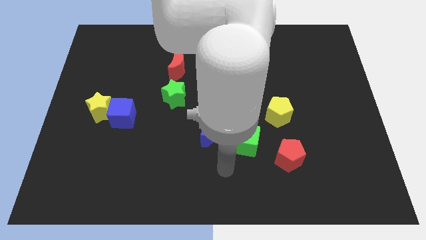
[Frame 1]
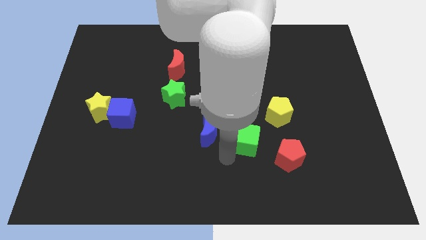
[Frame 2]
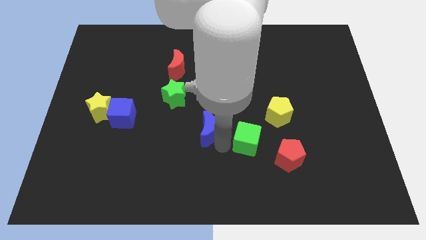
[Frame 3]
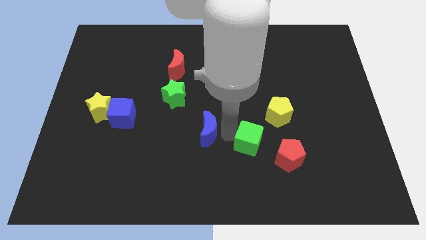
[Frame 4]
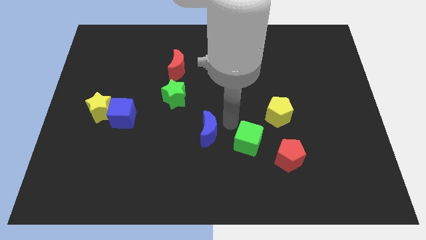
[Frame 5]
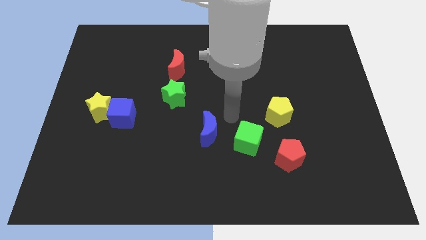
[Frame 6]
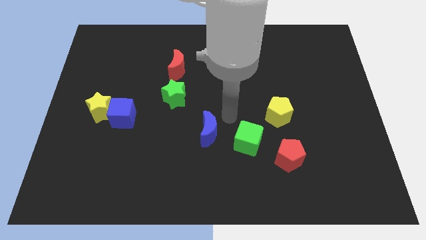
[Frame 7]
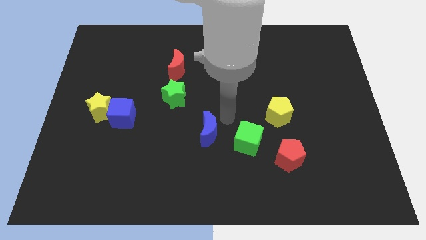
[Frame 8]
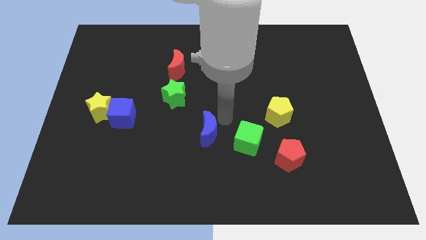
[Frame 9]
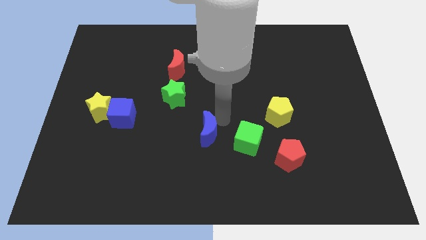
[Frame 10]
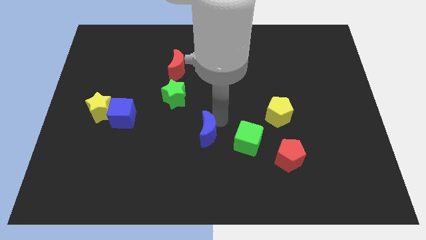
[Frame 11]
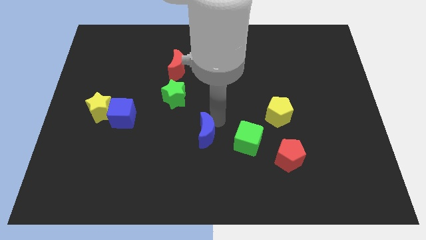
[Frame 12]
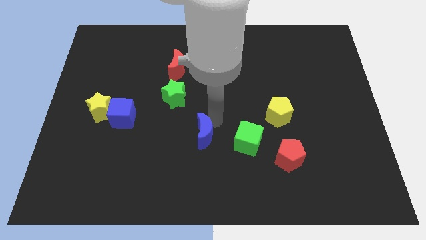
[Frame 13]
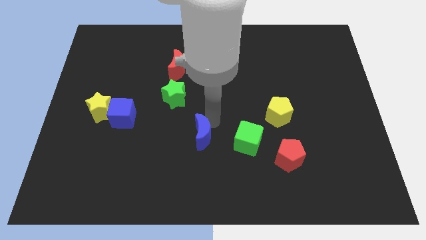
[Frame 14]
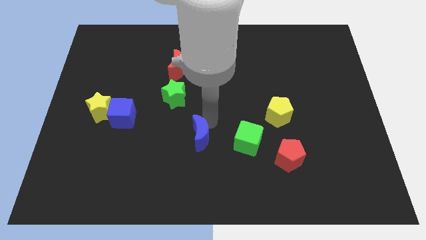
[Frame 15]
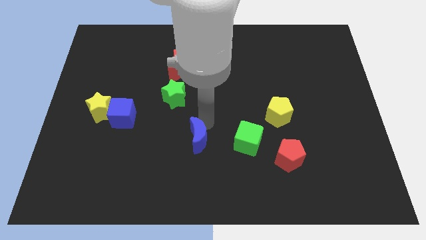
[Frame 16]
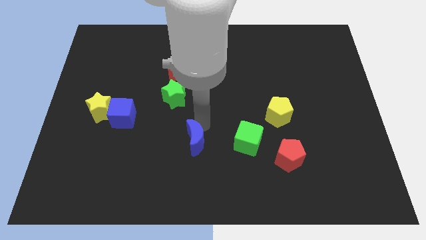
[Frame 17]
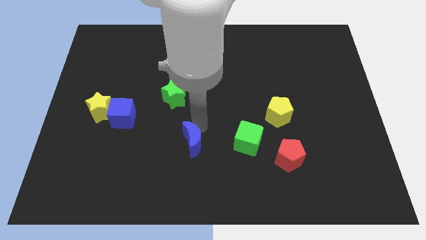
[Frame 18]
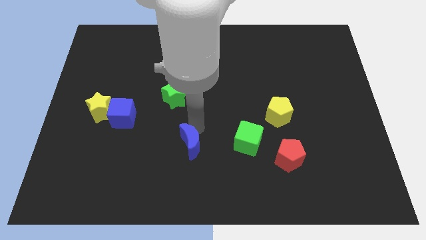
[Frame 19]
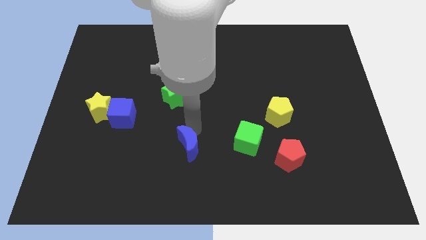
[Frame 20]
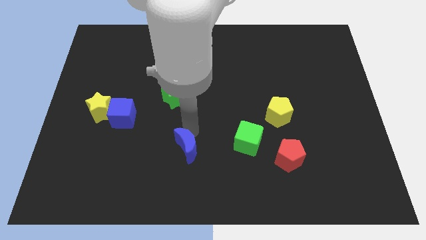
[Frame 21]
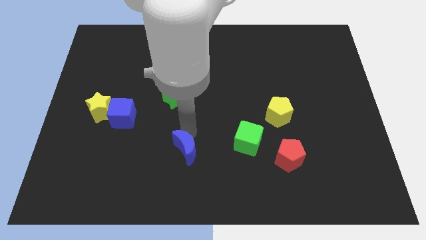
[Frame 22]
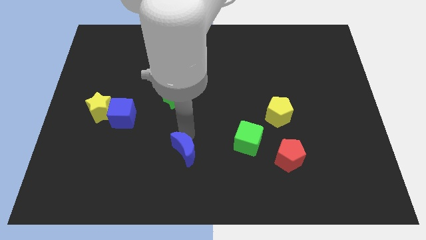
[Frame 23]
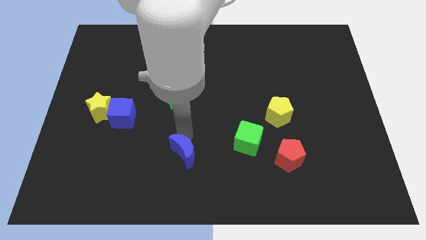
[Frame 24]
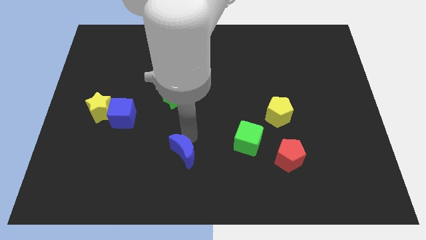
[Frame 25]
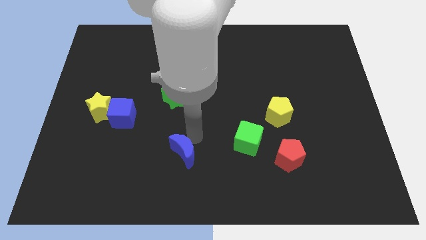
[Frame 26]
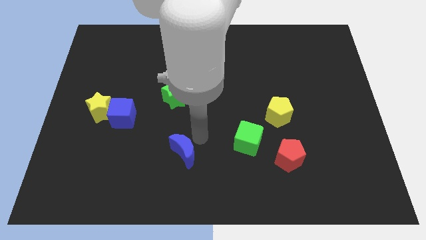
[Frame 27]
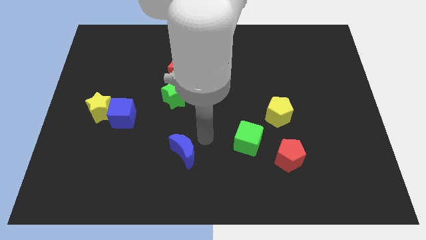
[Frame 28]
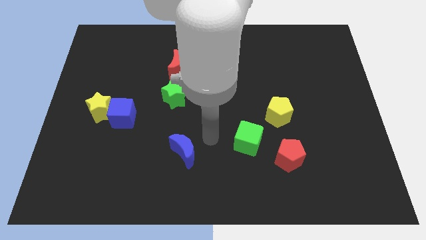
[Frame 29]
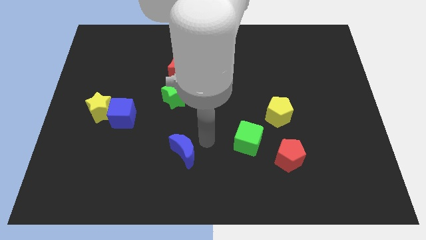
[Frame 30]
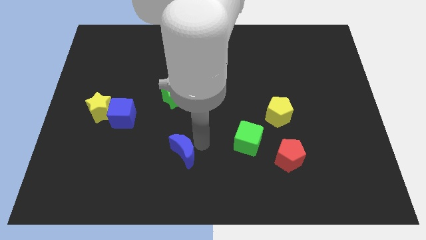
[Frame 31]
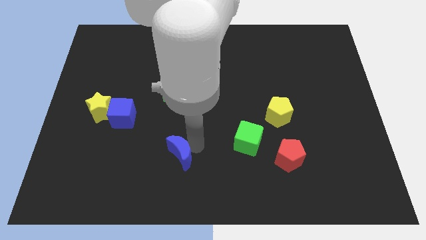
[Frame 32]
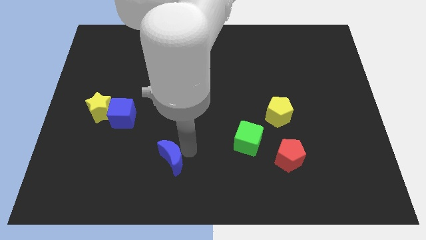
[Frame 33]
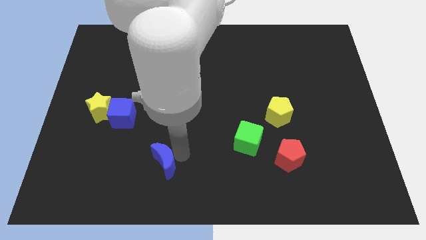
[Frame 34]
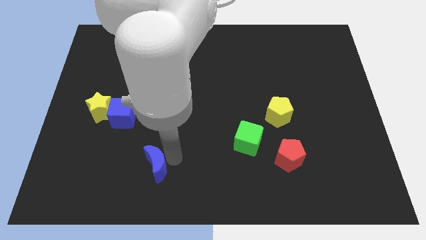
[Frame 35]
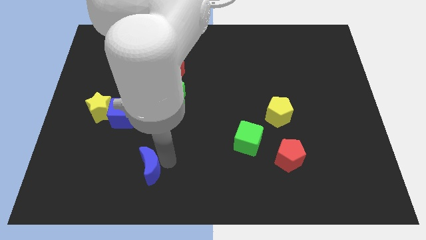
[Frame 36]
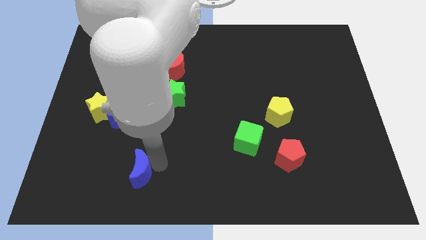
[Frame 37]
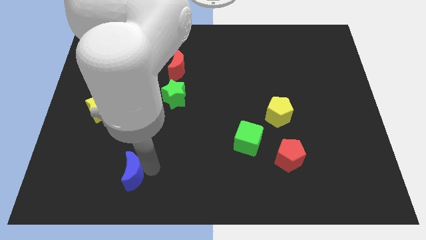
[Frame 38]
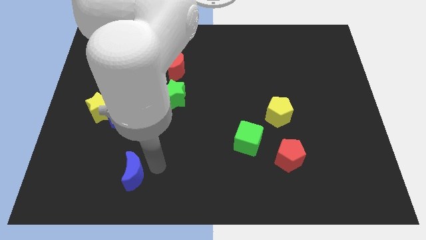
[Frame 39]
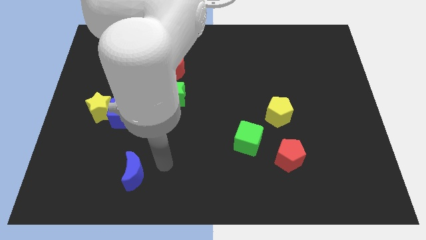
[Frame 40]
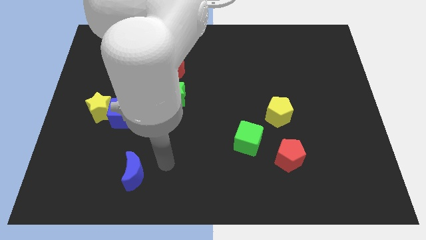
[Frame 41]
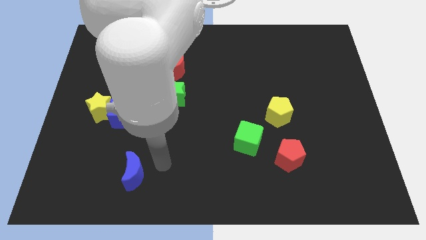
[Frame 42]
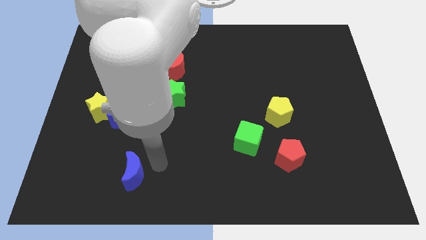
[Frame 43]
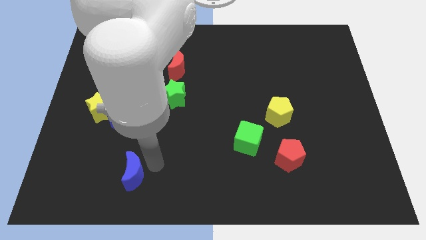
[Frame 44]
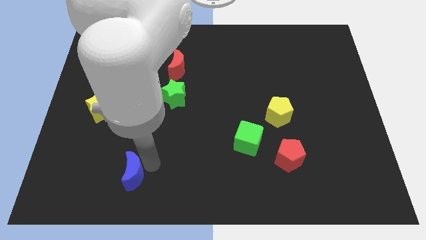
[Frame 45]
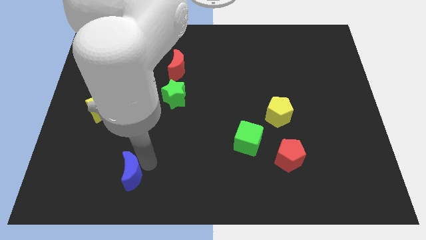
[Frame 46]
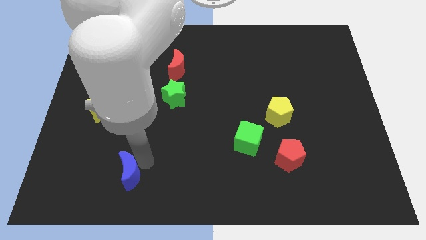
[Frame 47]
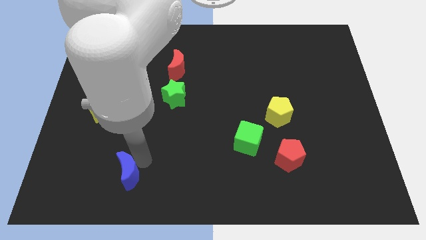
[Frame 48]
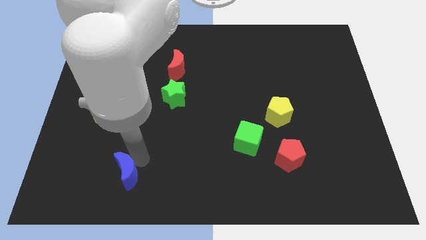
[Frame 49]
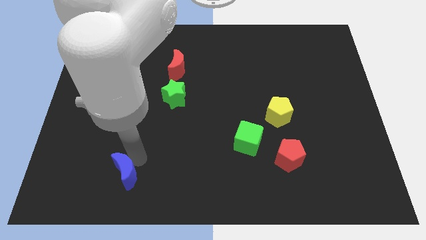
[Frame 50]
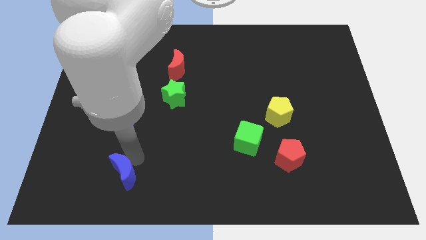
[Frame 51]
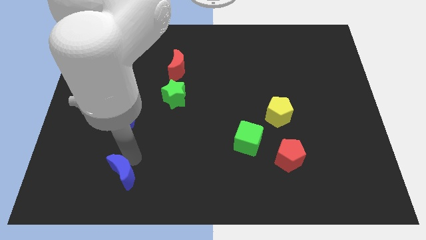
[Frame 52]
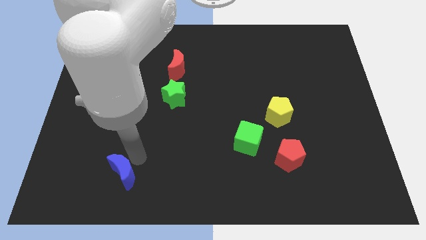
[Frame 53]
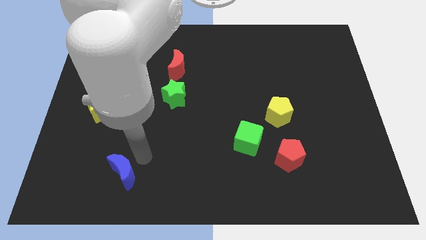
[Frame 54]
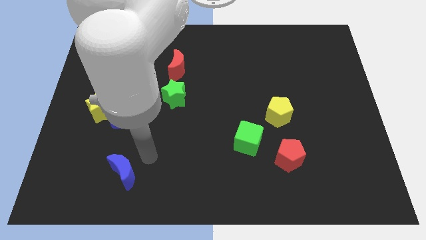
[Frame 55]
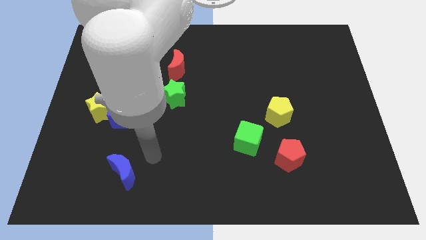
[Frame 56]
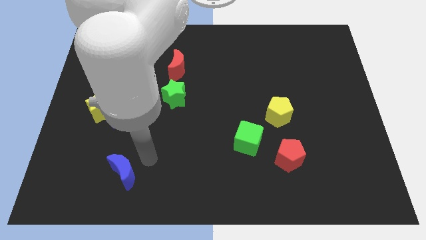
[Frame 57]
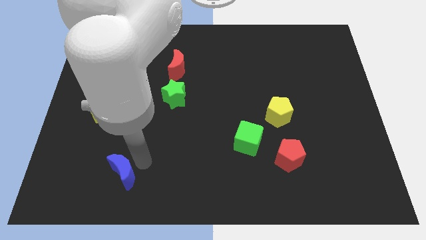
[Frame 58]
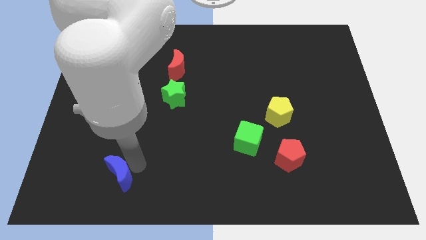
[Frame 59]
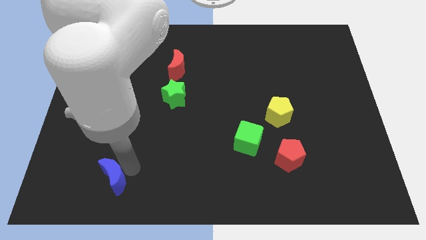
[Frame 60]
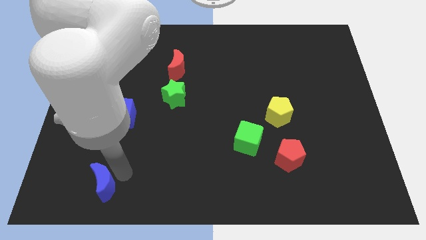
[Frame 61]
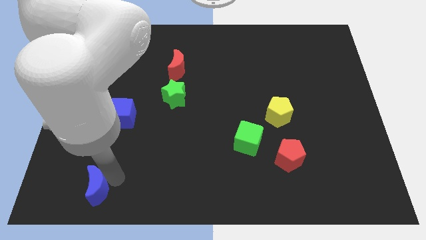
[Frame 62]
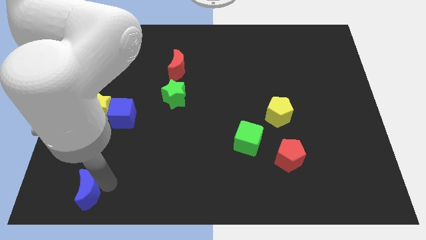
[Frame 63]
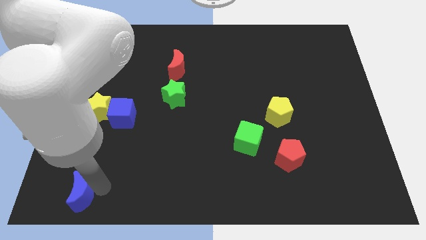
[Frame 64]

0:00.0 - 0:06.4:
put the blue moon to the bottom left of the board

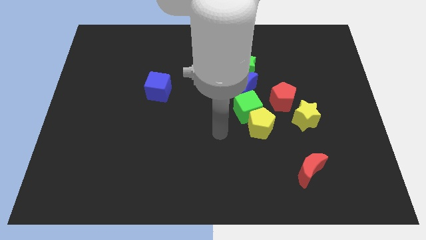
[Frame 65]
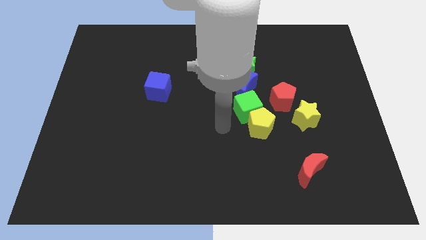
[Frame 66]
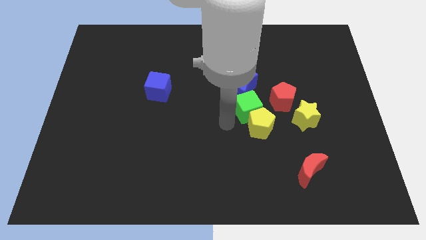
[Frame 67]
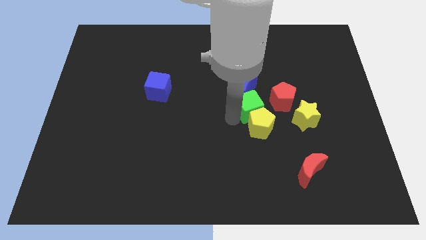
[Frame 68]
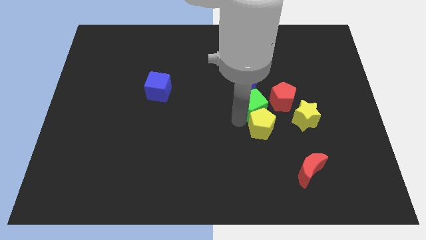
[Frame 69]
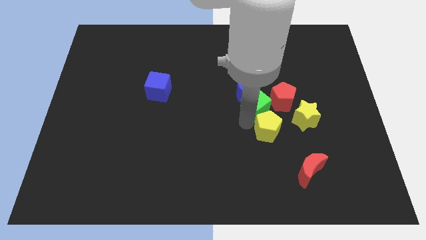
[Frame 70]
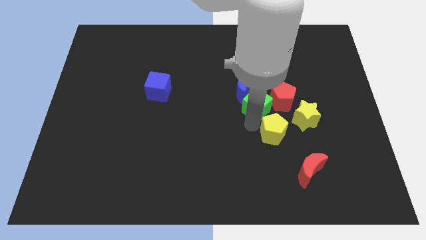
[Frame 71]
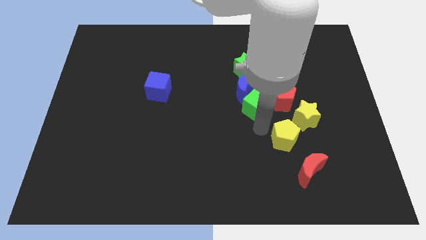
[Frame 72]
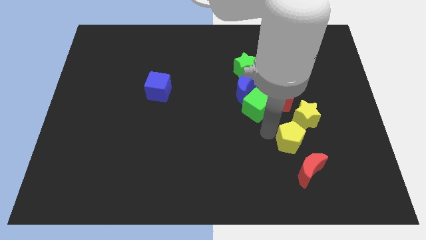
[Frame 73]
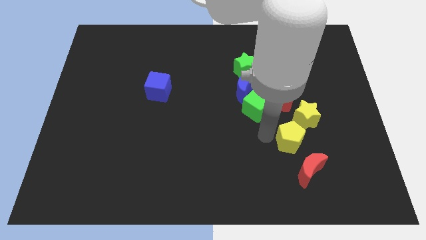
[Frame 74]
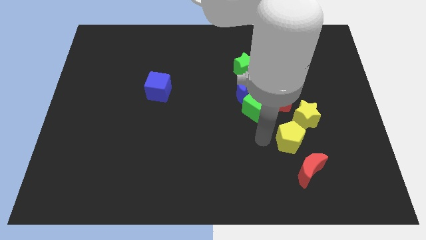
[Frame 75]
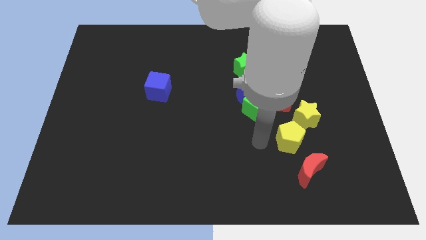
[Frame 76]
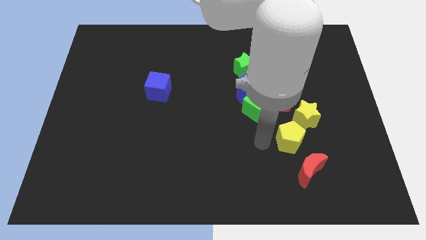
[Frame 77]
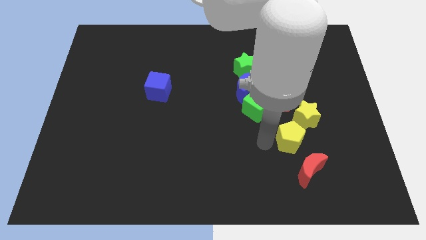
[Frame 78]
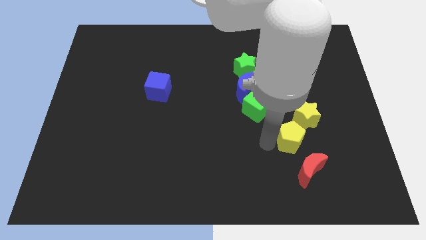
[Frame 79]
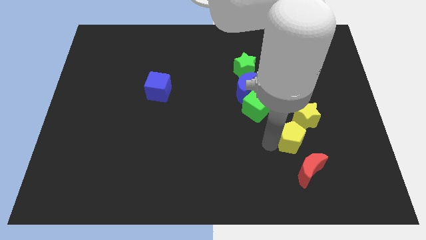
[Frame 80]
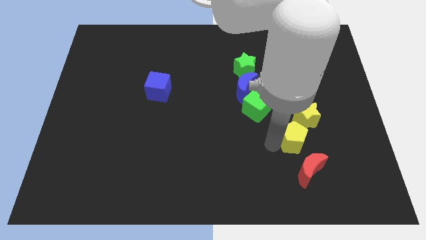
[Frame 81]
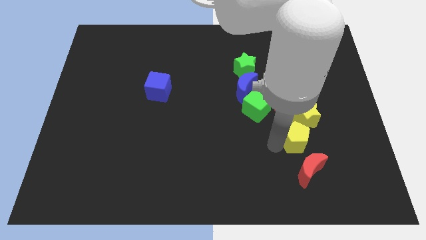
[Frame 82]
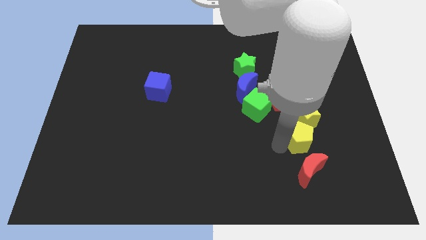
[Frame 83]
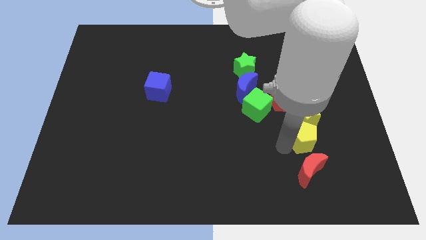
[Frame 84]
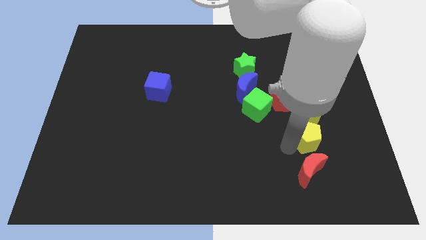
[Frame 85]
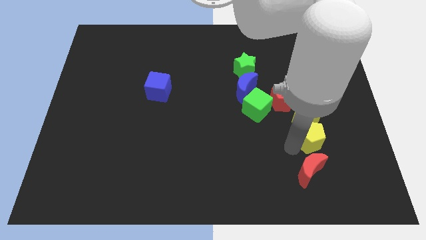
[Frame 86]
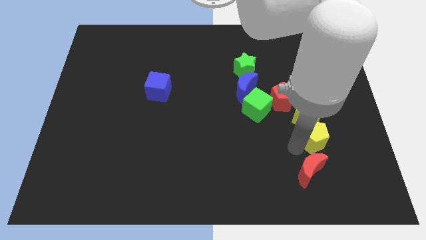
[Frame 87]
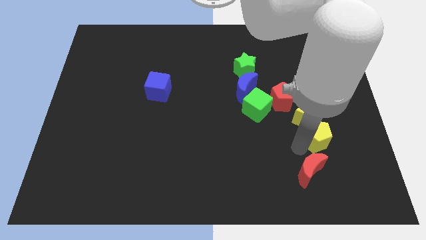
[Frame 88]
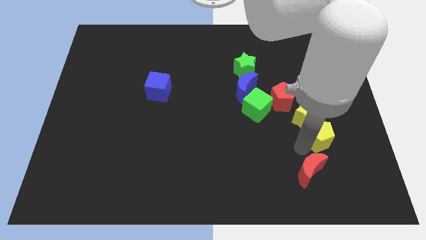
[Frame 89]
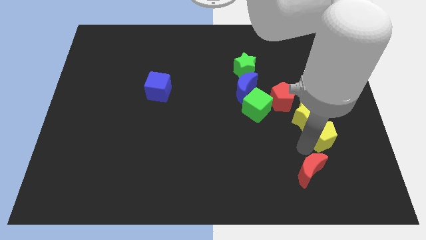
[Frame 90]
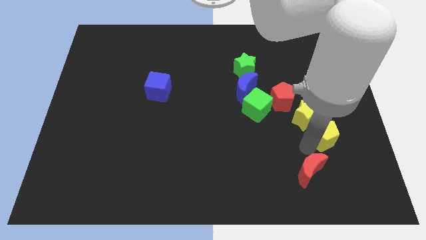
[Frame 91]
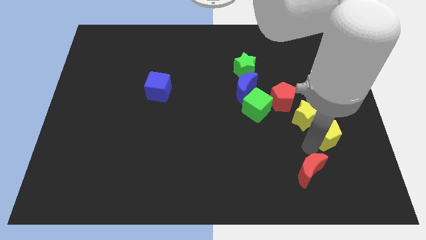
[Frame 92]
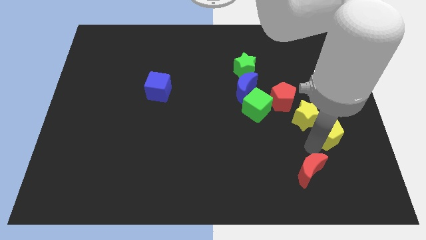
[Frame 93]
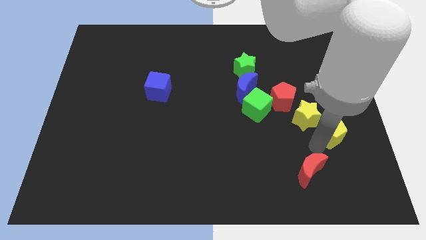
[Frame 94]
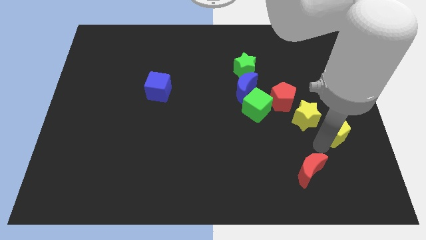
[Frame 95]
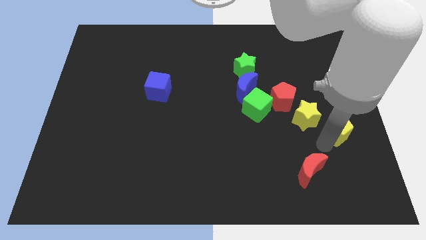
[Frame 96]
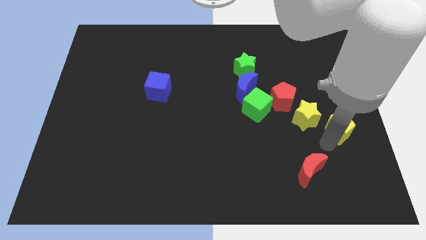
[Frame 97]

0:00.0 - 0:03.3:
push the yellow pentagon to the right side of the board
